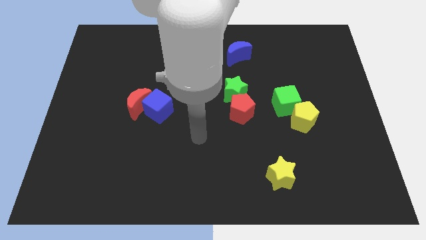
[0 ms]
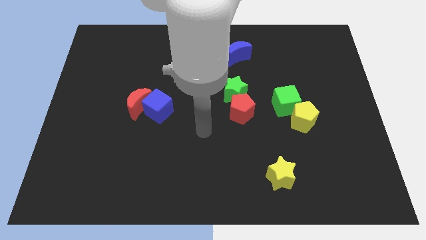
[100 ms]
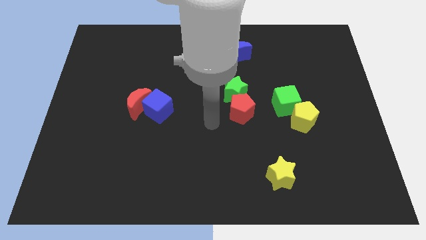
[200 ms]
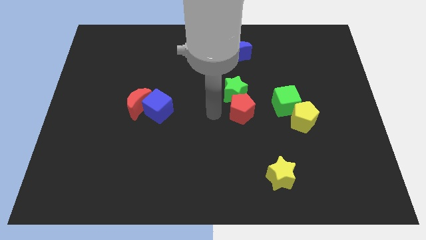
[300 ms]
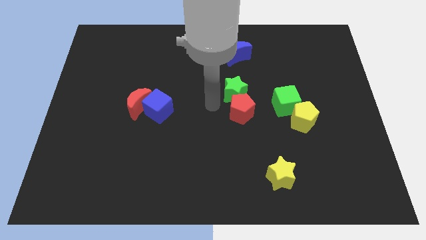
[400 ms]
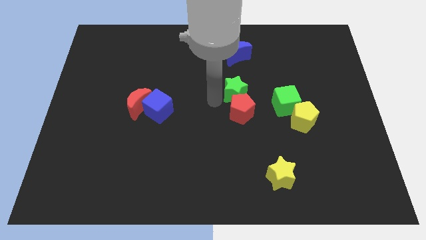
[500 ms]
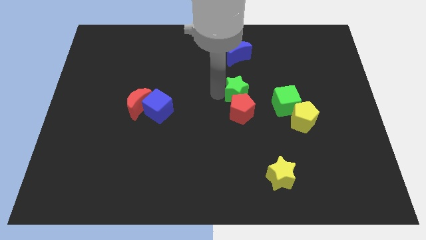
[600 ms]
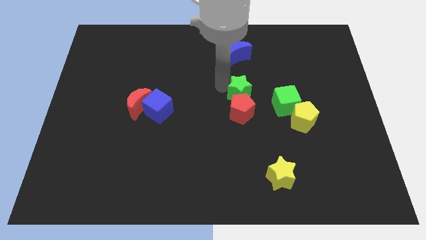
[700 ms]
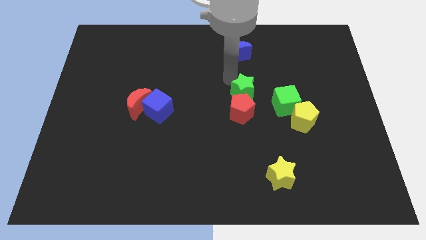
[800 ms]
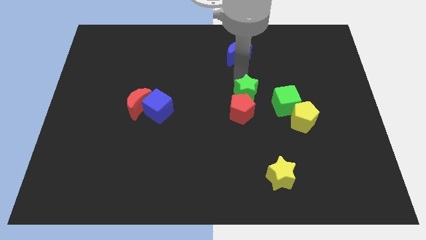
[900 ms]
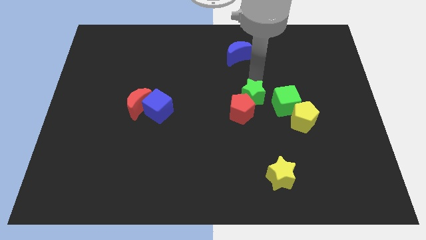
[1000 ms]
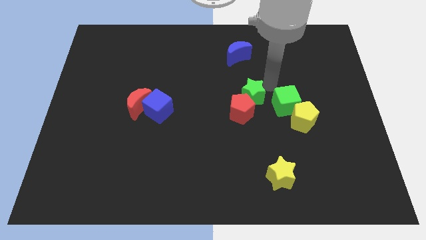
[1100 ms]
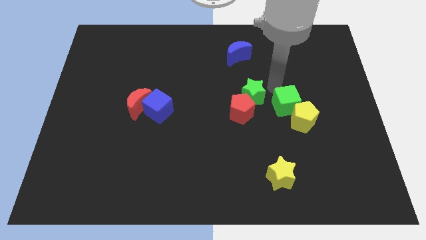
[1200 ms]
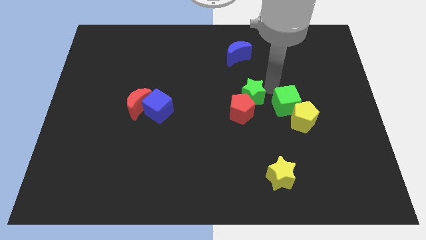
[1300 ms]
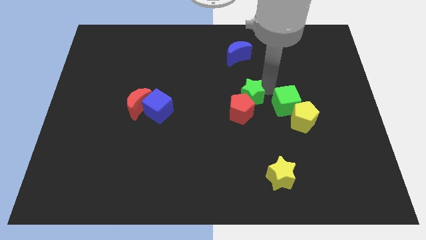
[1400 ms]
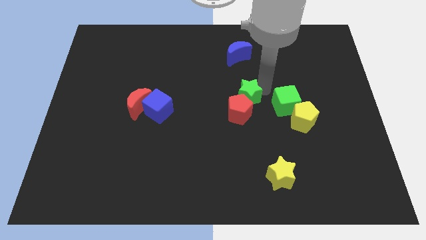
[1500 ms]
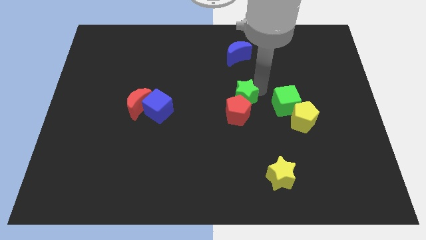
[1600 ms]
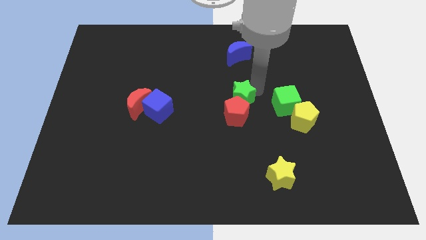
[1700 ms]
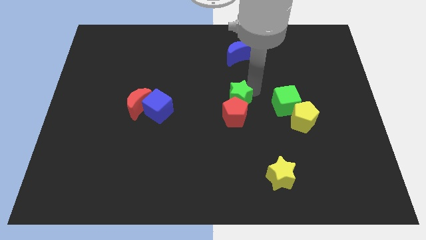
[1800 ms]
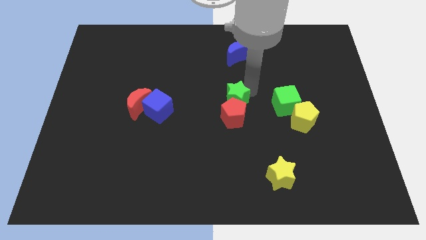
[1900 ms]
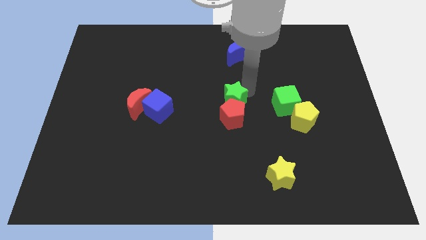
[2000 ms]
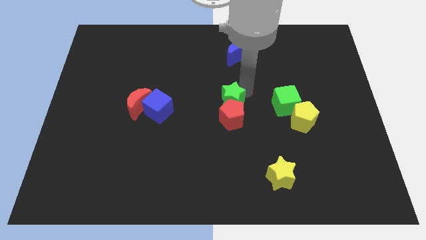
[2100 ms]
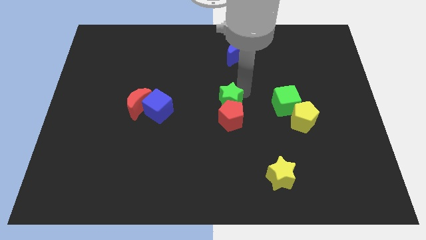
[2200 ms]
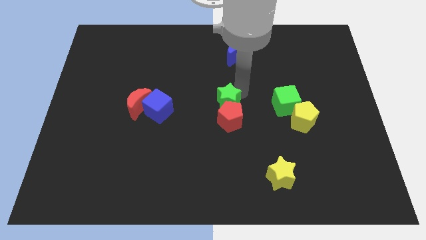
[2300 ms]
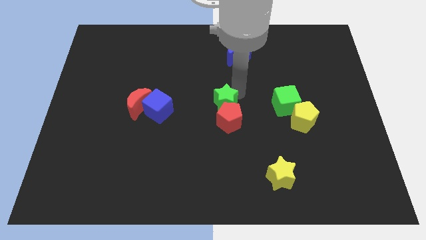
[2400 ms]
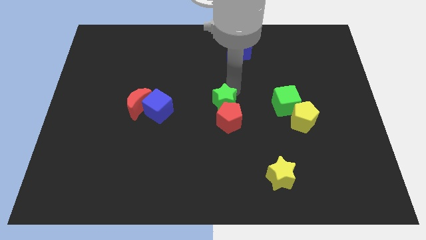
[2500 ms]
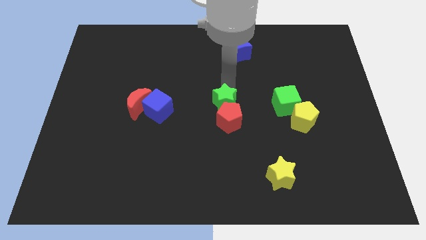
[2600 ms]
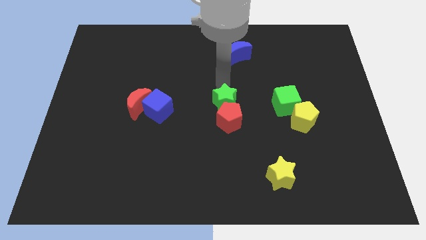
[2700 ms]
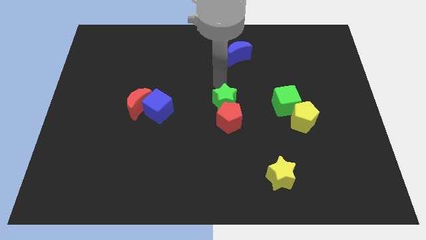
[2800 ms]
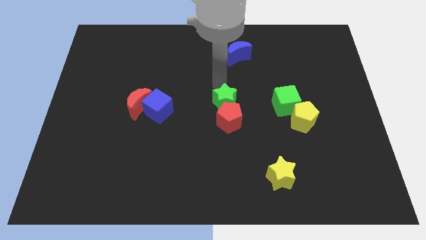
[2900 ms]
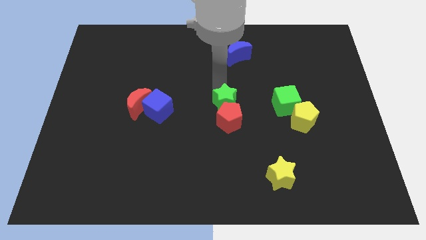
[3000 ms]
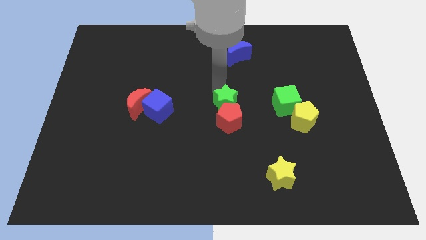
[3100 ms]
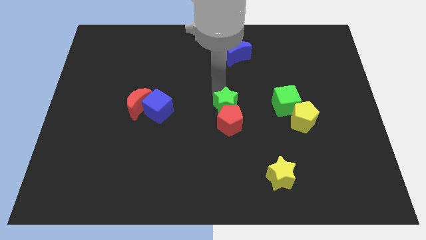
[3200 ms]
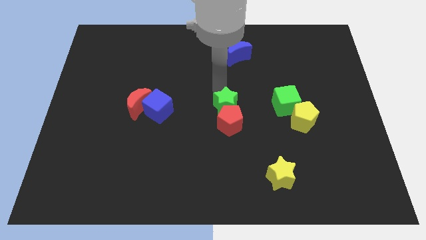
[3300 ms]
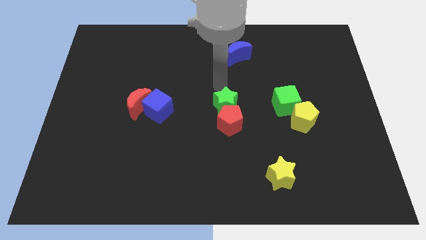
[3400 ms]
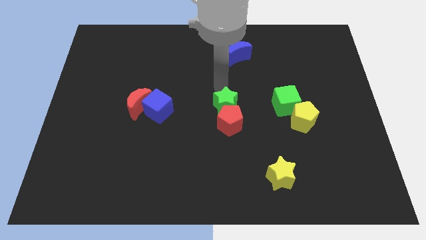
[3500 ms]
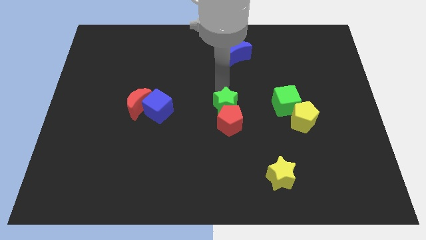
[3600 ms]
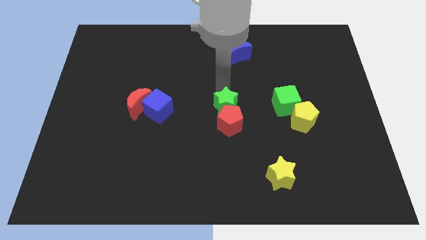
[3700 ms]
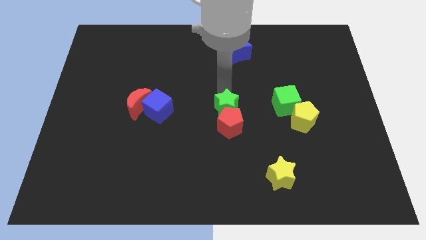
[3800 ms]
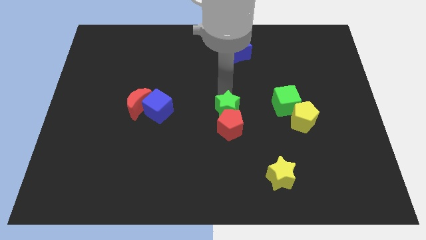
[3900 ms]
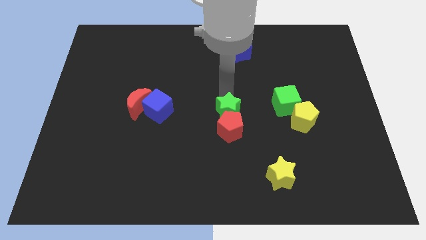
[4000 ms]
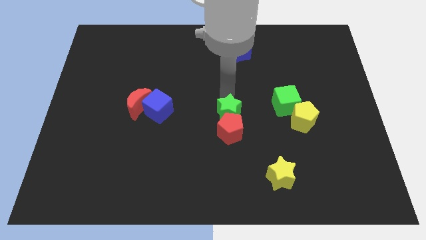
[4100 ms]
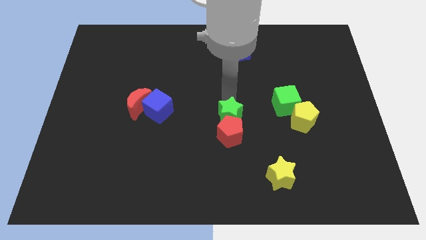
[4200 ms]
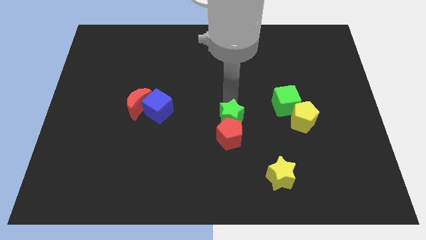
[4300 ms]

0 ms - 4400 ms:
slightly move the green star down

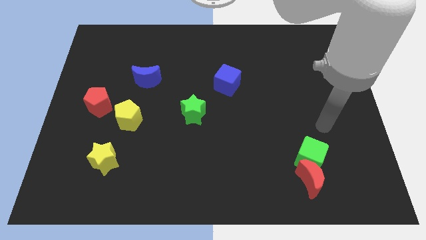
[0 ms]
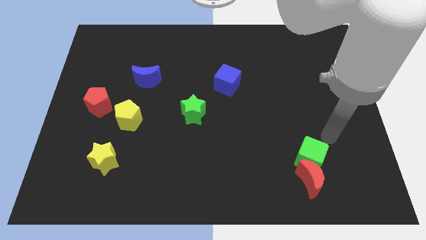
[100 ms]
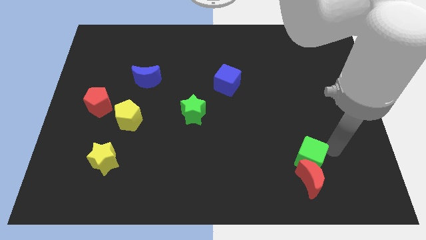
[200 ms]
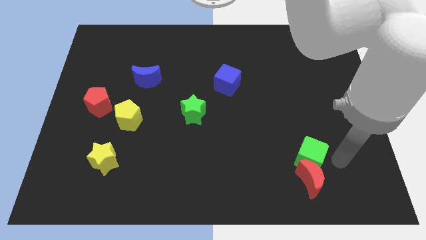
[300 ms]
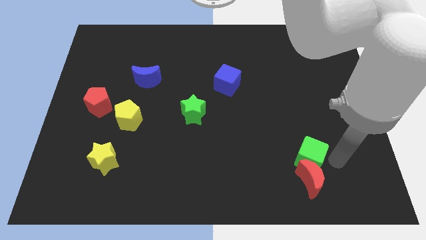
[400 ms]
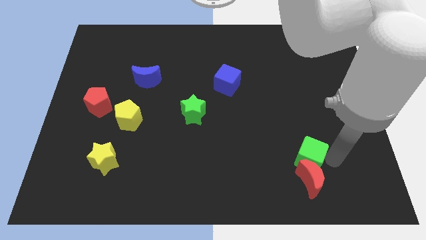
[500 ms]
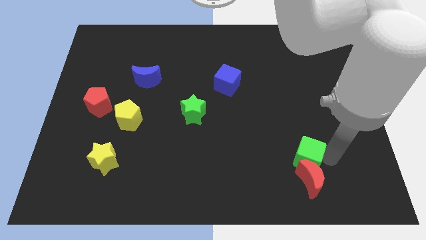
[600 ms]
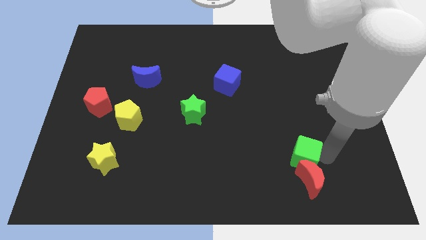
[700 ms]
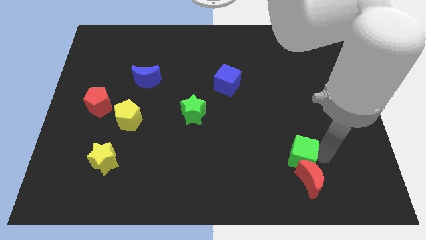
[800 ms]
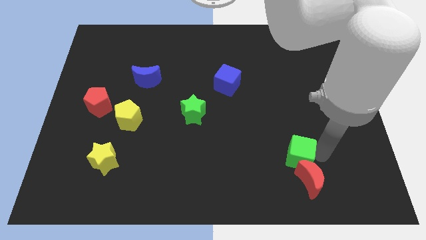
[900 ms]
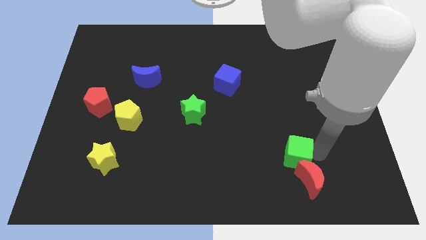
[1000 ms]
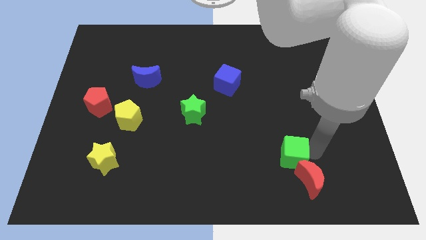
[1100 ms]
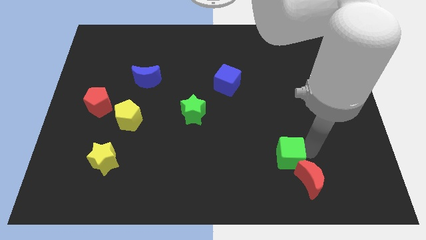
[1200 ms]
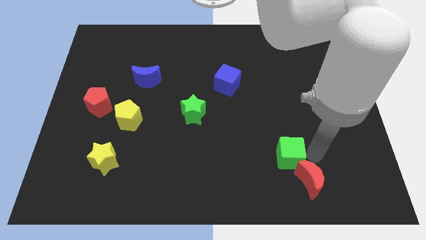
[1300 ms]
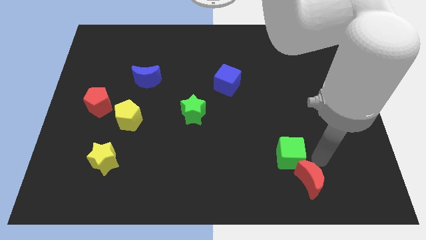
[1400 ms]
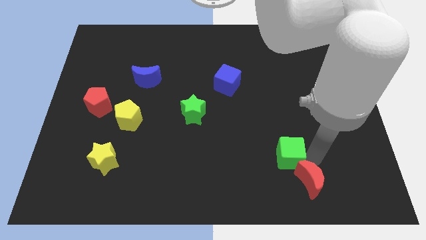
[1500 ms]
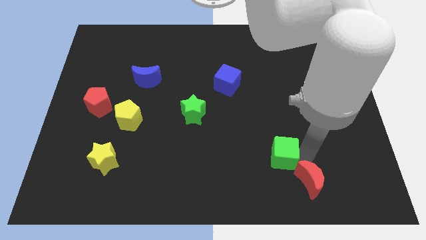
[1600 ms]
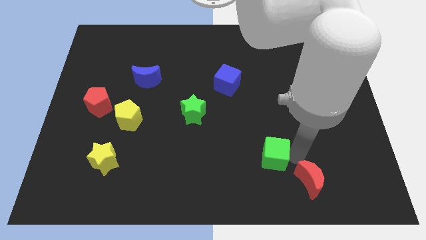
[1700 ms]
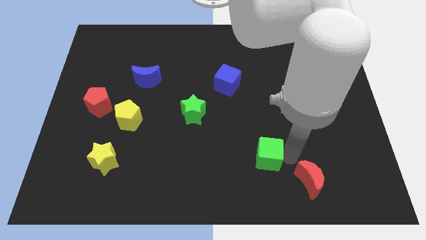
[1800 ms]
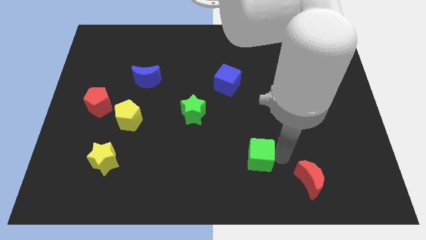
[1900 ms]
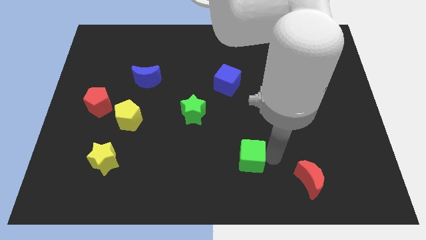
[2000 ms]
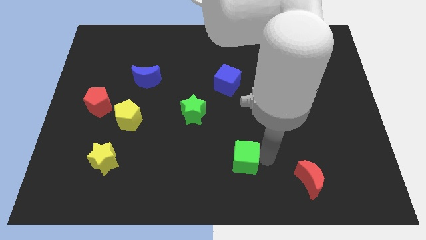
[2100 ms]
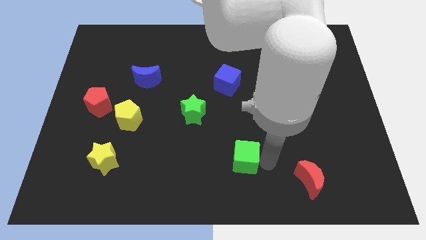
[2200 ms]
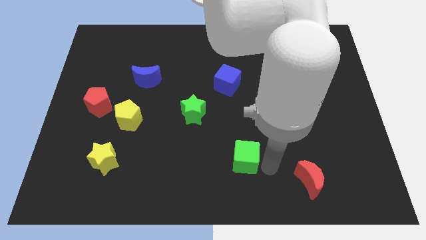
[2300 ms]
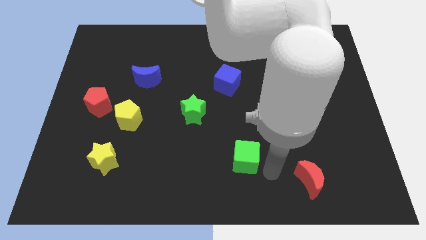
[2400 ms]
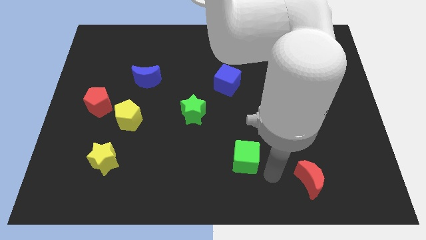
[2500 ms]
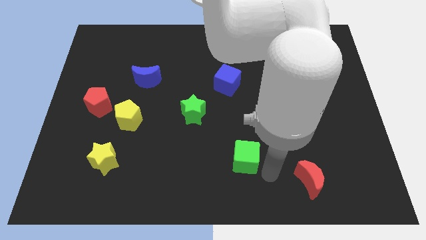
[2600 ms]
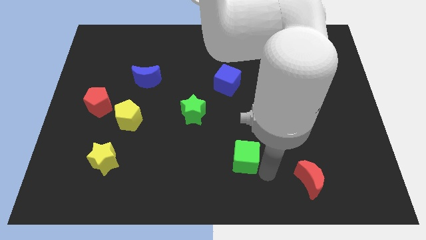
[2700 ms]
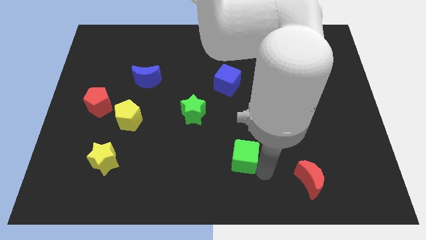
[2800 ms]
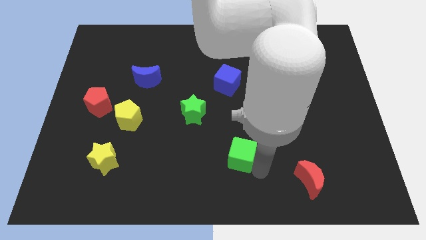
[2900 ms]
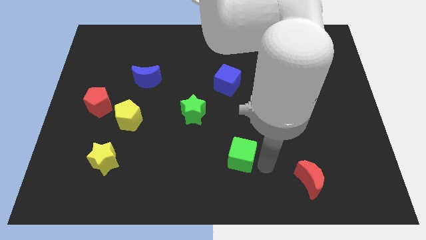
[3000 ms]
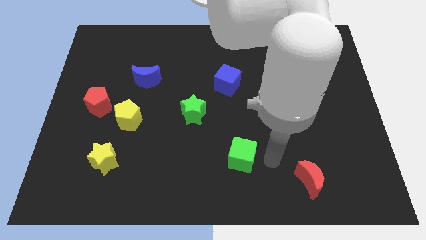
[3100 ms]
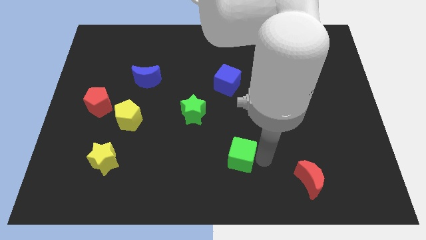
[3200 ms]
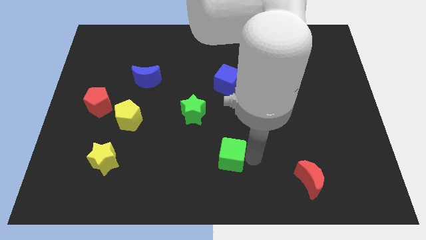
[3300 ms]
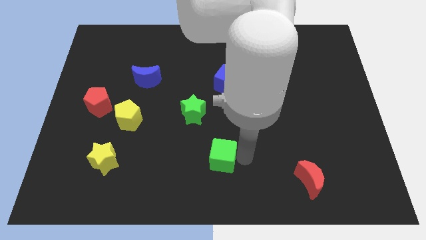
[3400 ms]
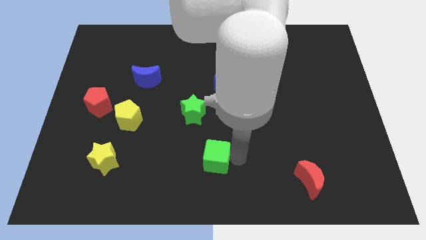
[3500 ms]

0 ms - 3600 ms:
push the green cube left

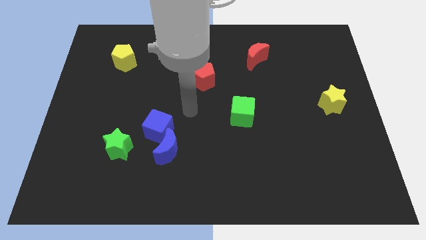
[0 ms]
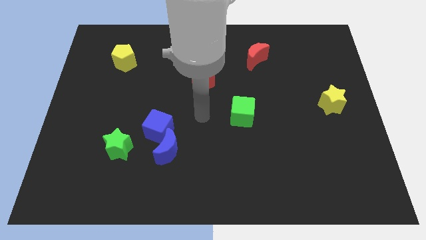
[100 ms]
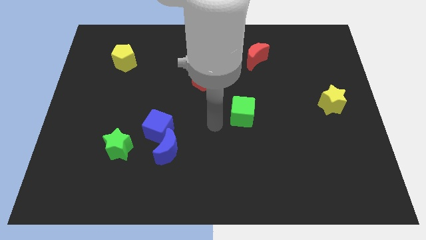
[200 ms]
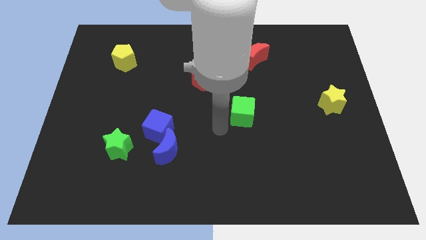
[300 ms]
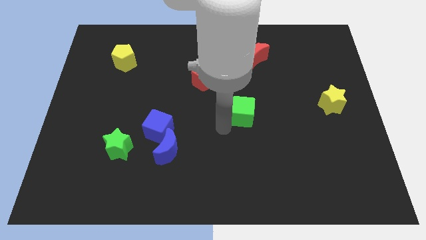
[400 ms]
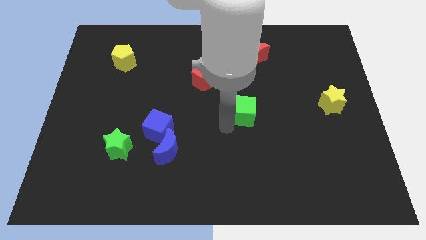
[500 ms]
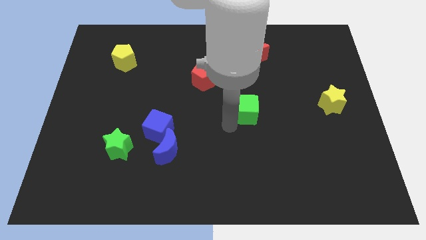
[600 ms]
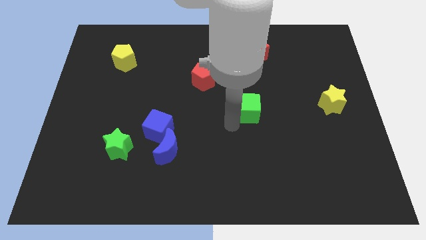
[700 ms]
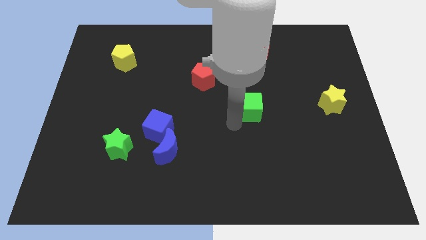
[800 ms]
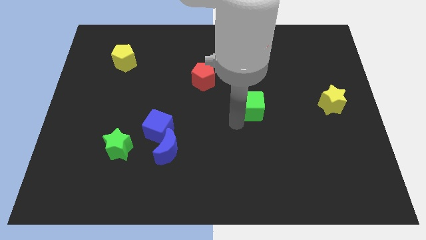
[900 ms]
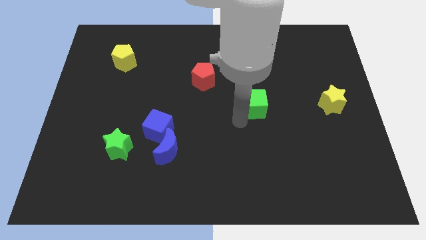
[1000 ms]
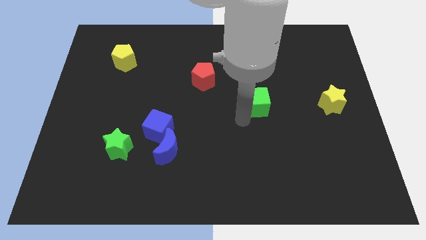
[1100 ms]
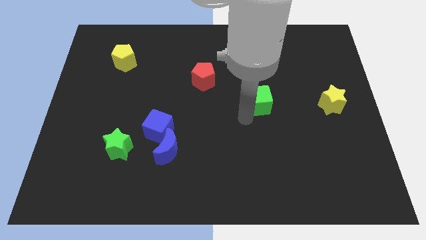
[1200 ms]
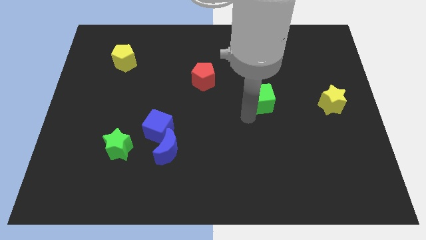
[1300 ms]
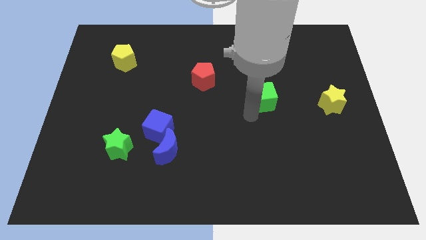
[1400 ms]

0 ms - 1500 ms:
slide the green cube a little up and right diagonally
